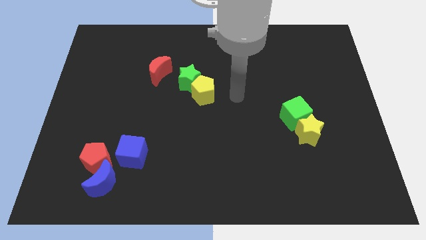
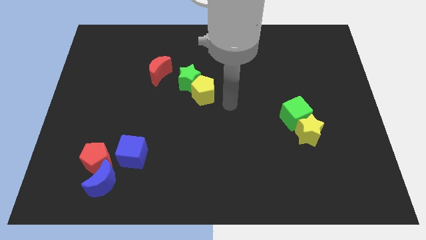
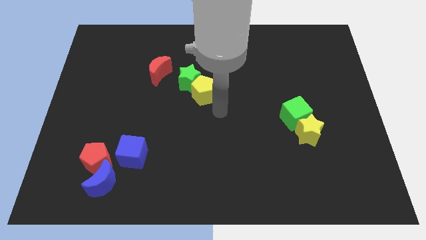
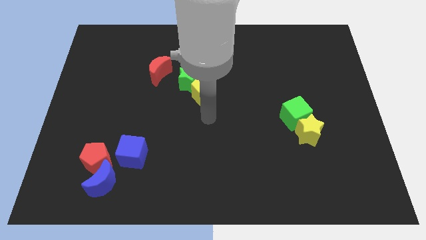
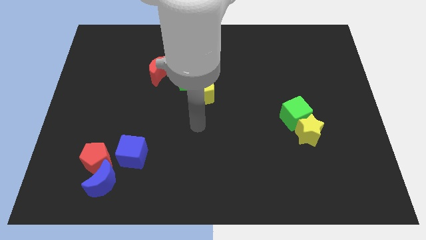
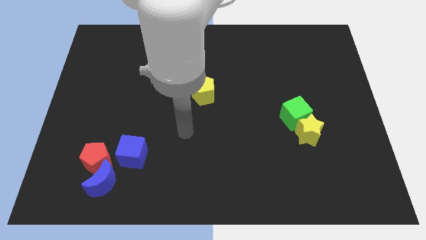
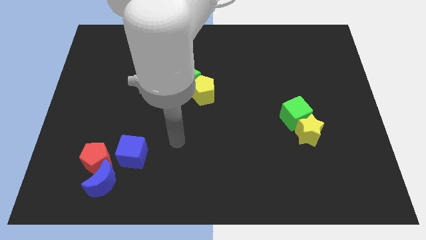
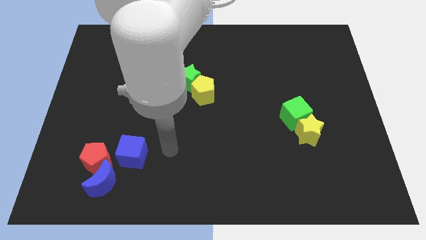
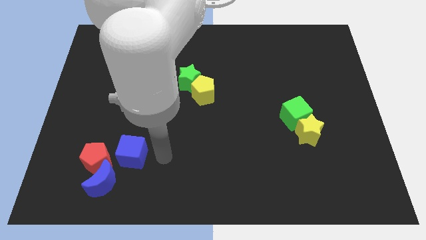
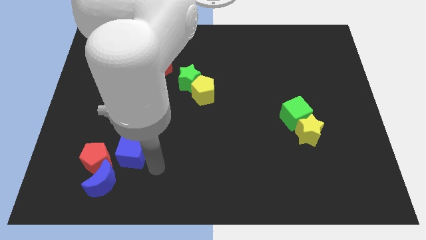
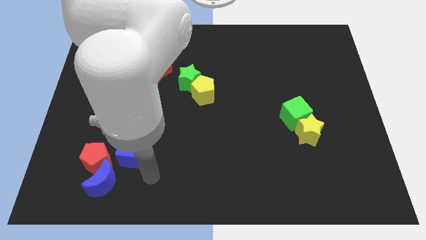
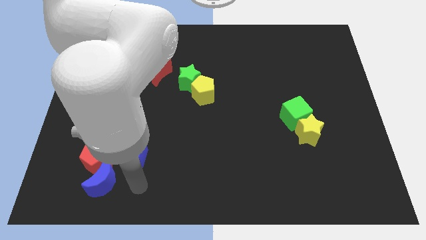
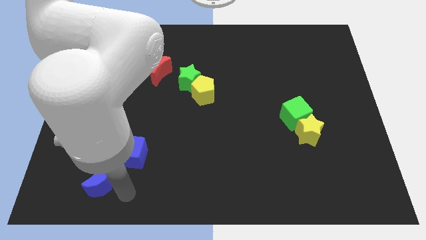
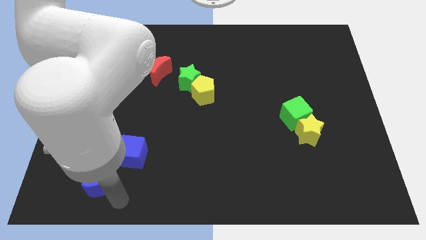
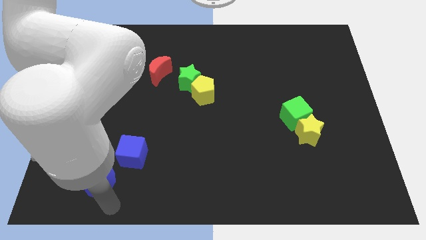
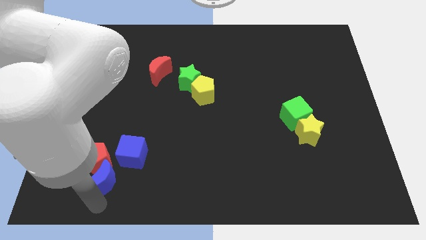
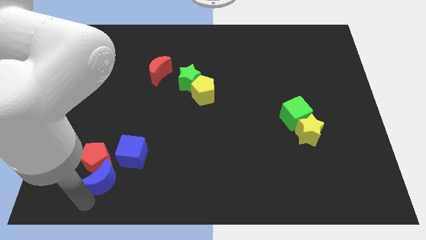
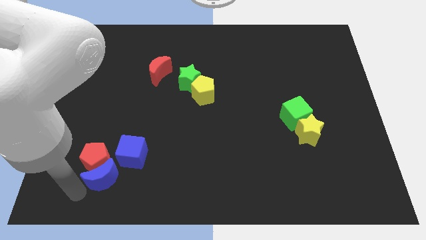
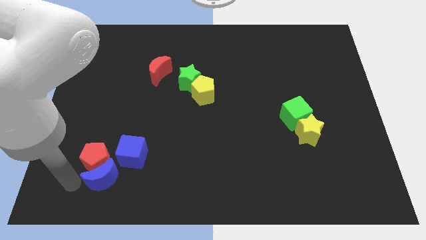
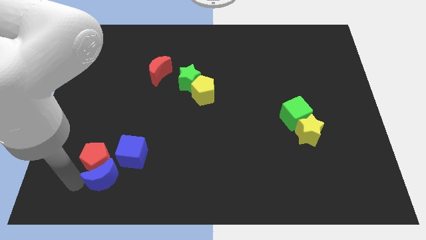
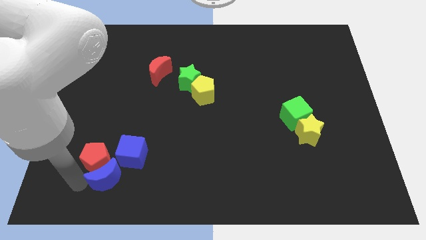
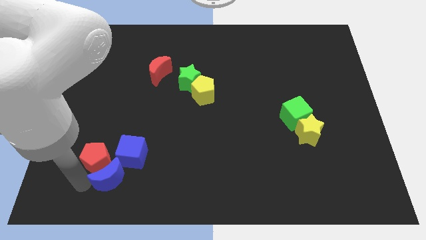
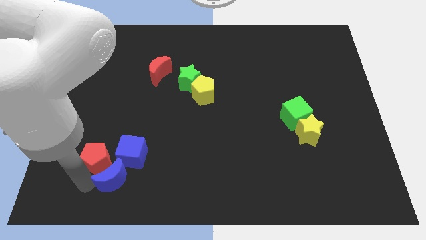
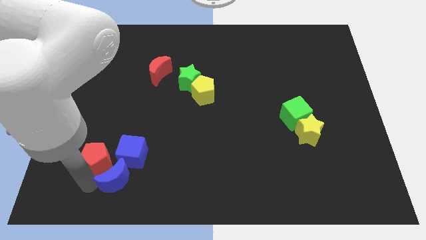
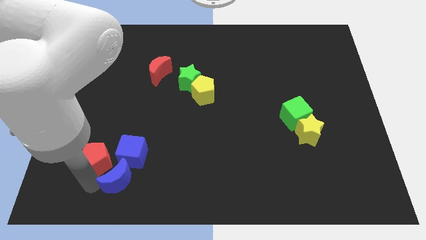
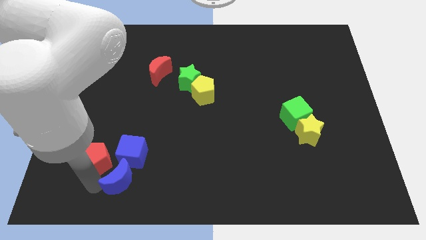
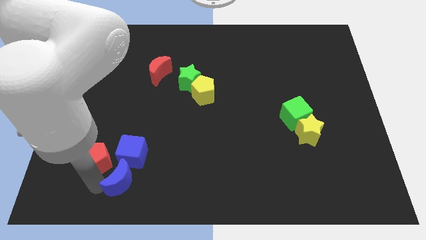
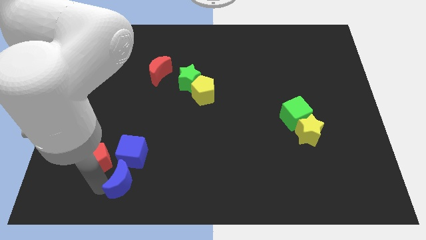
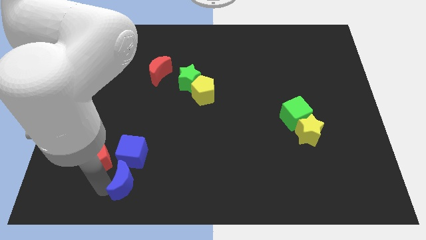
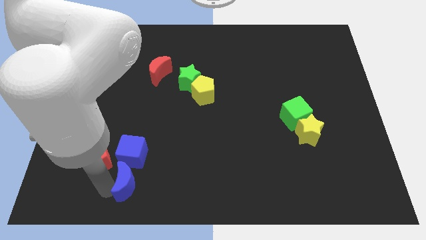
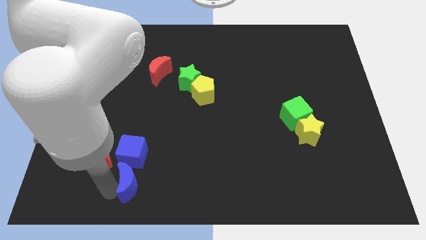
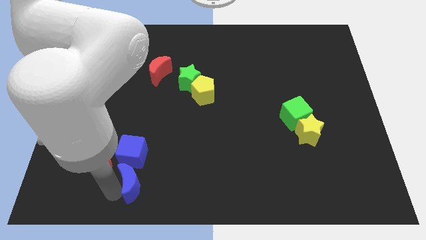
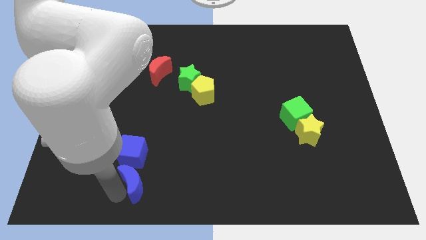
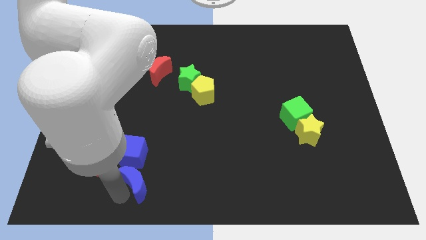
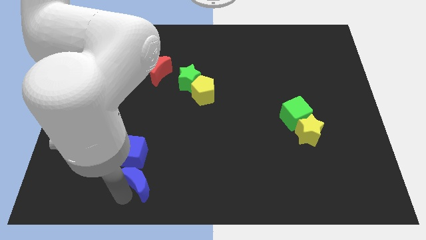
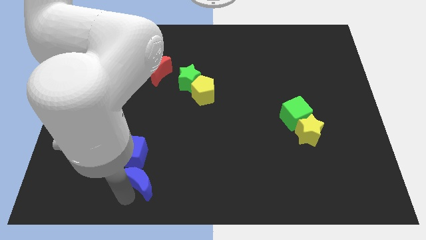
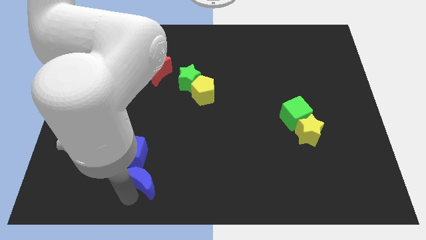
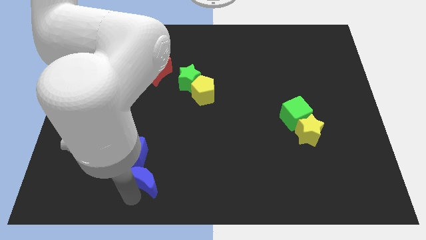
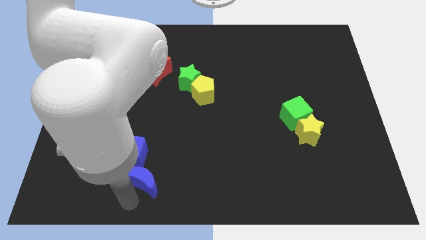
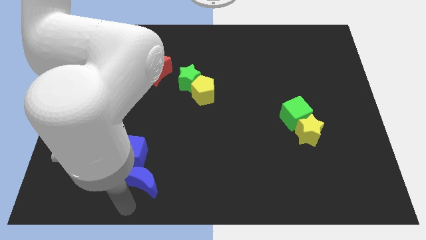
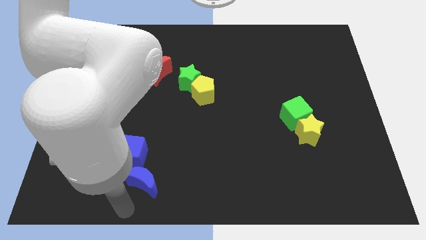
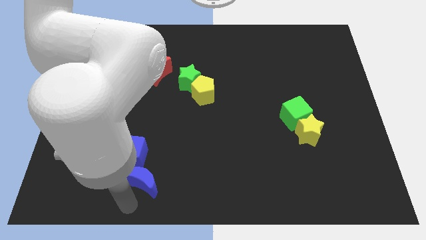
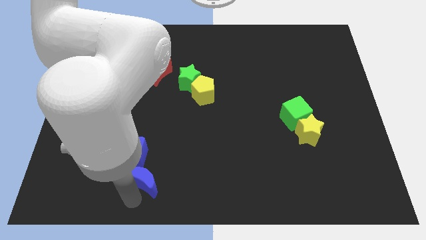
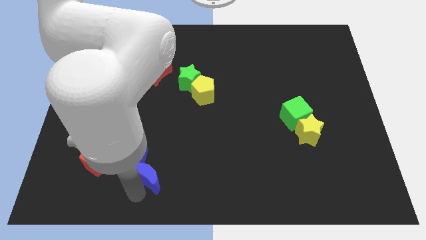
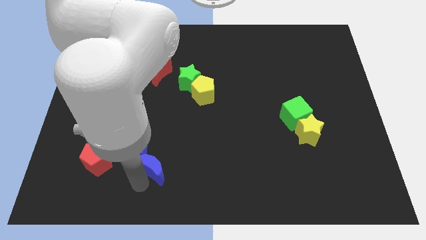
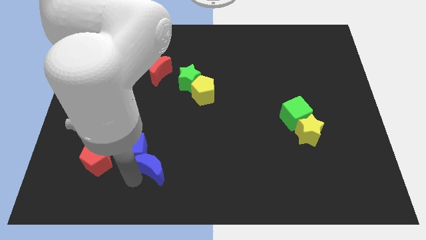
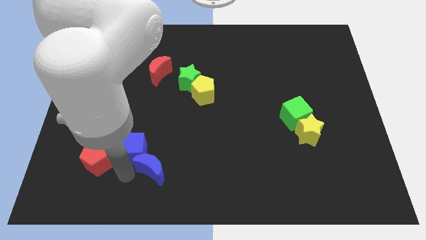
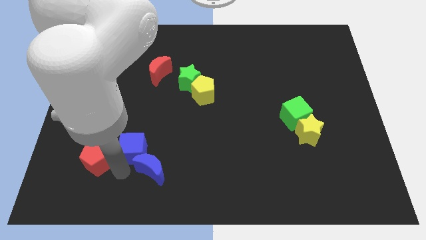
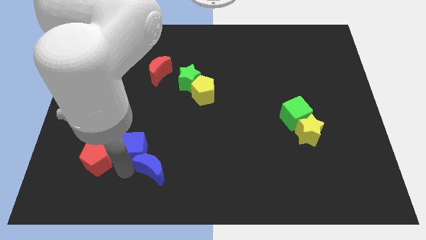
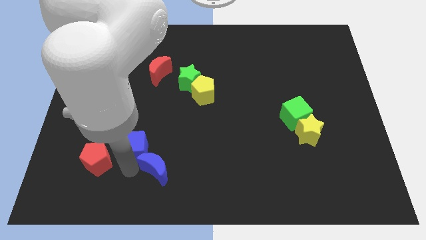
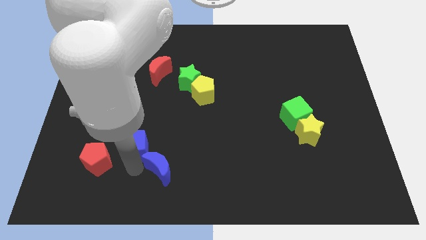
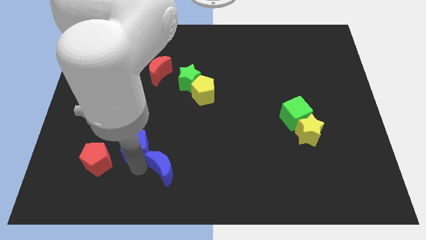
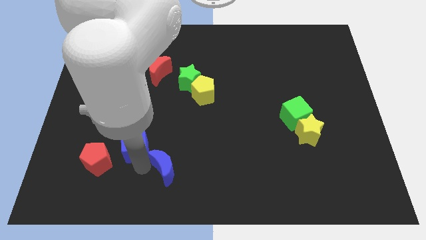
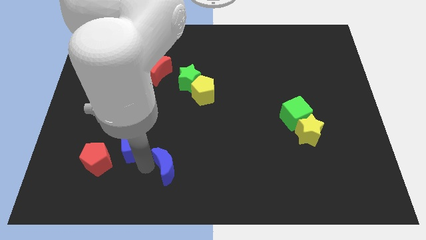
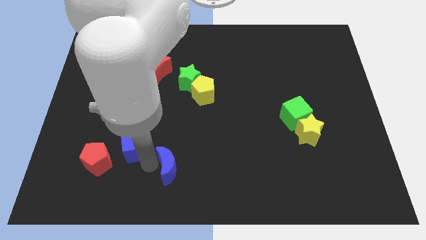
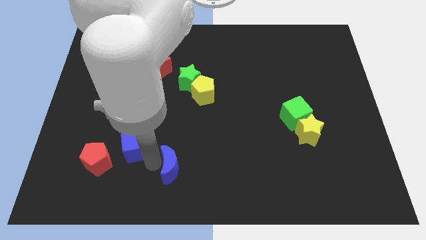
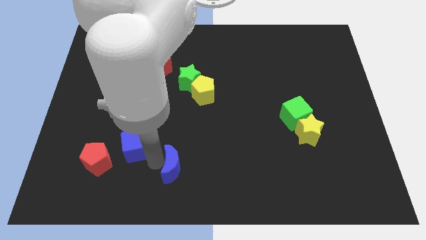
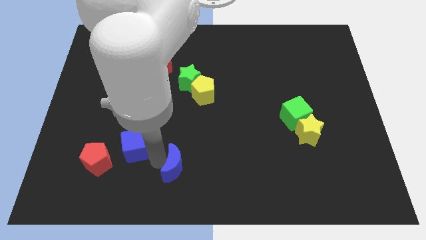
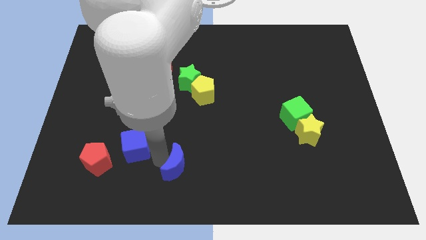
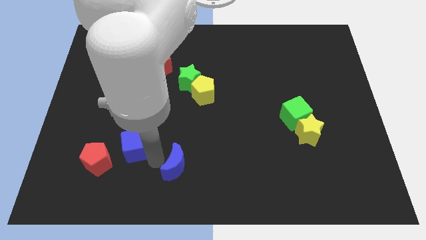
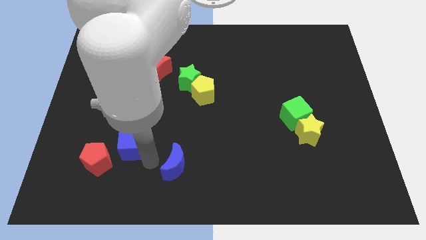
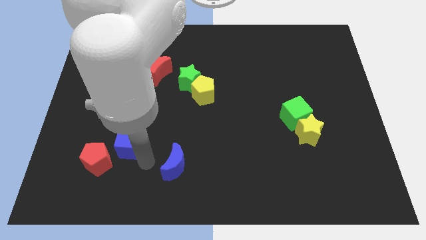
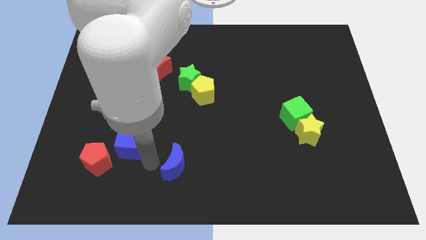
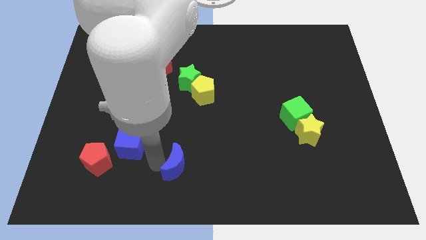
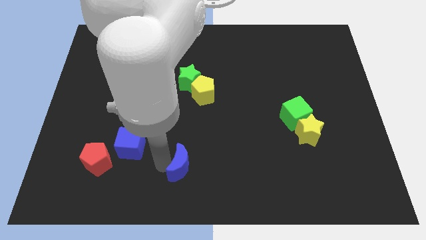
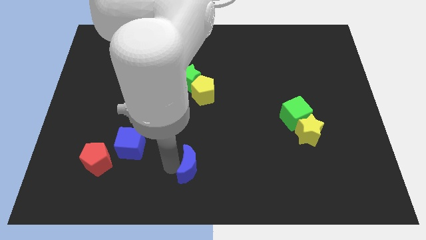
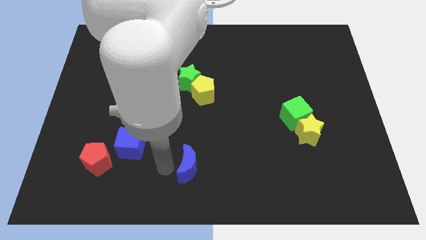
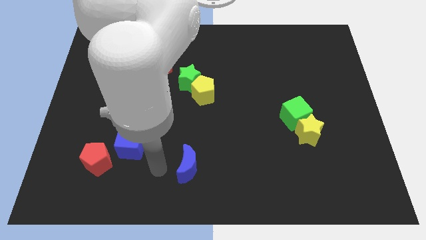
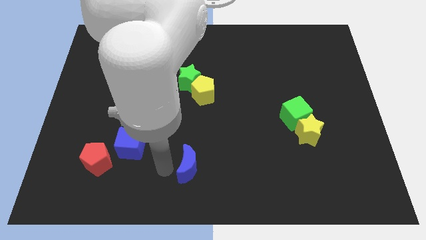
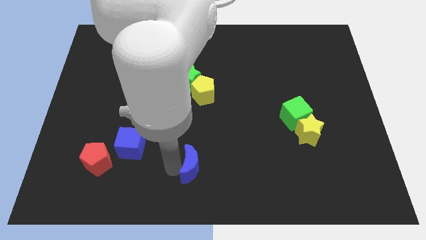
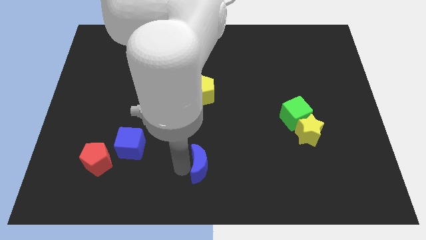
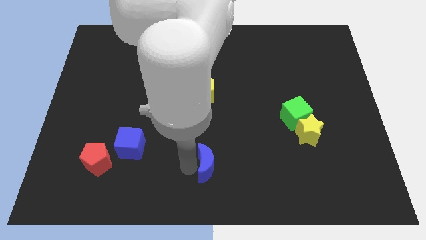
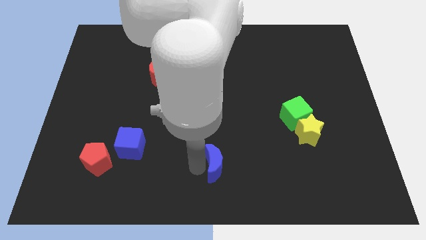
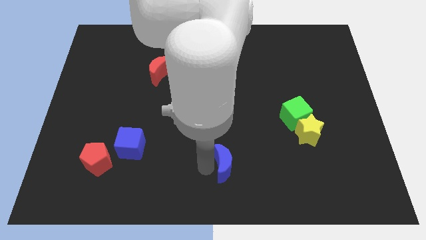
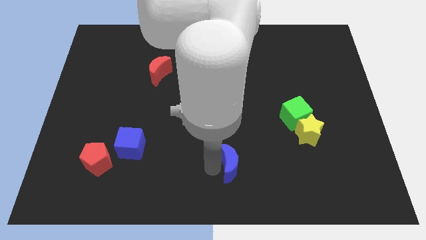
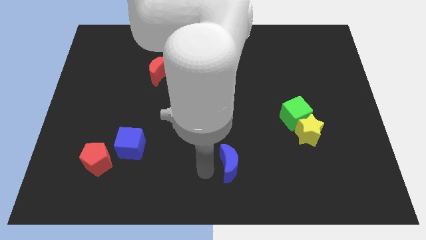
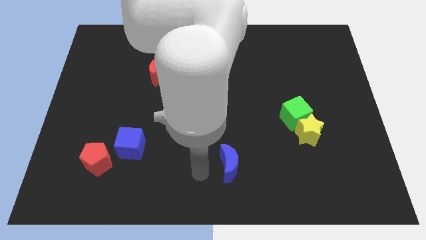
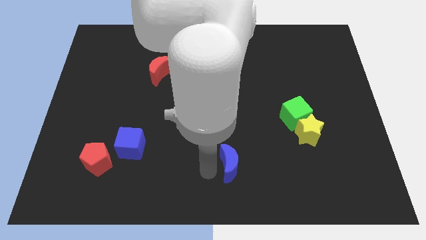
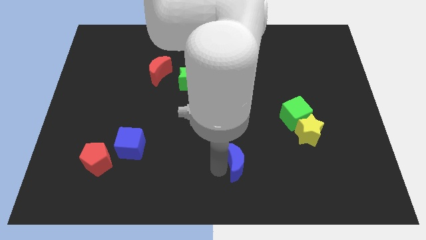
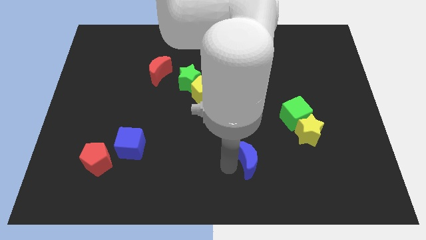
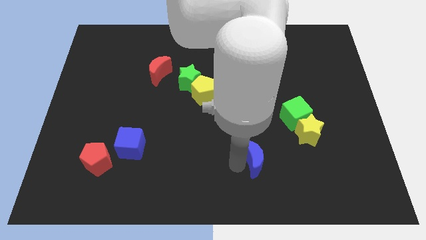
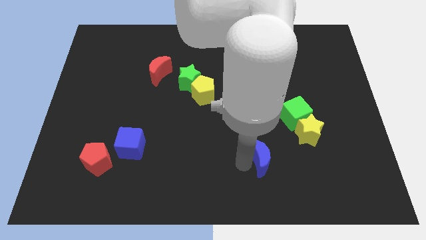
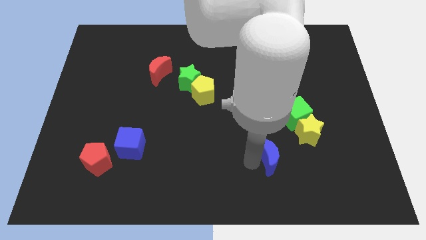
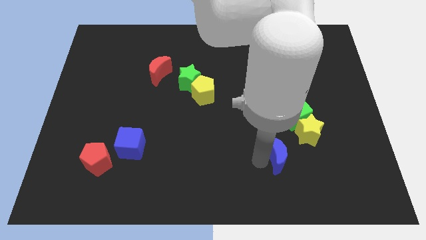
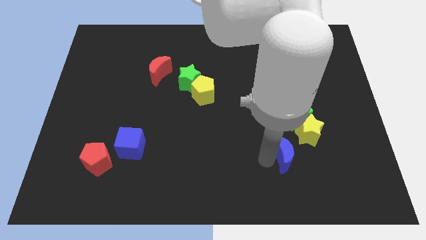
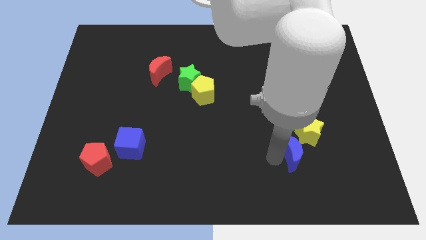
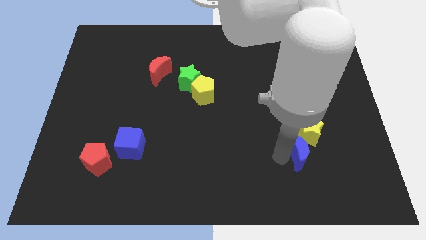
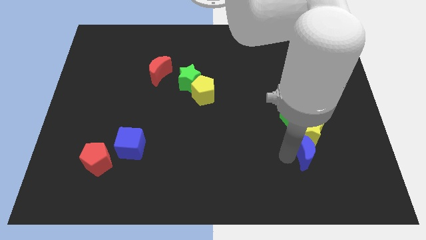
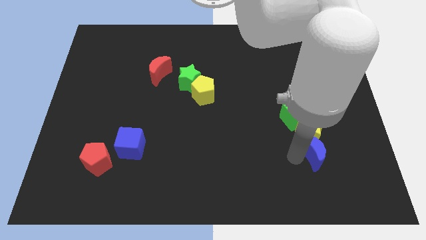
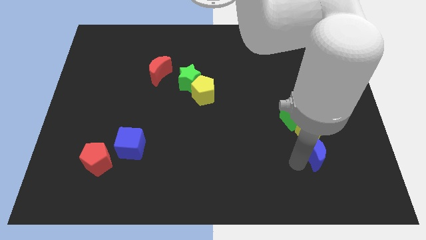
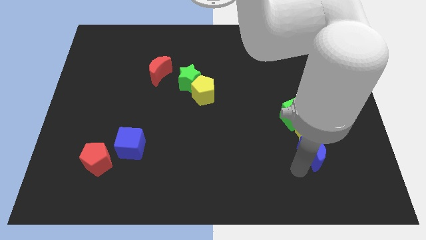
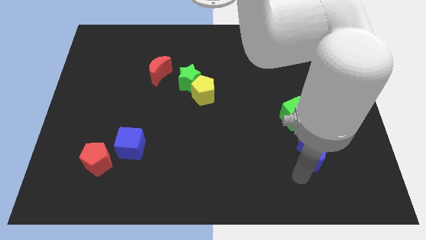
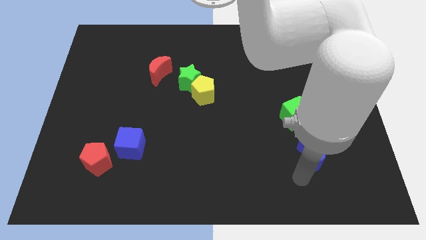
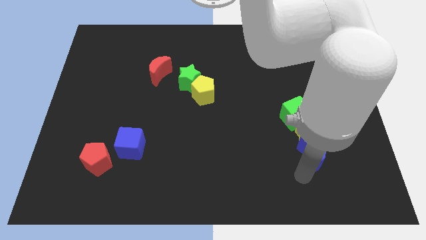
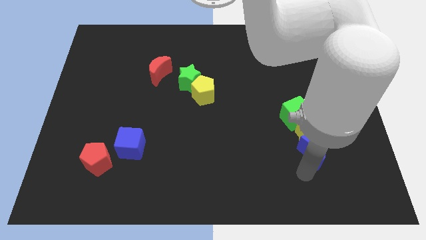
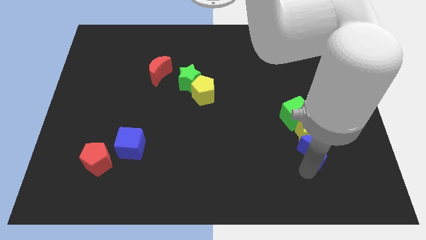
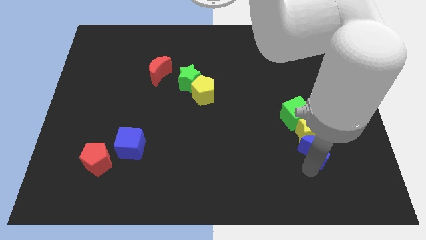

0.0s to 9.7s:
put the blue moon diagonally down and to the right of the green cube
